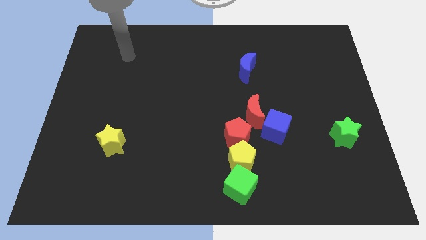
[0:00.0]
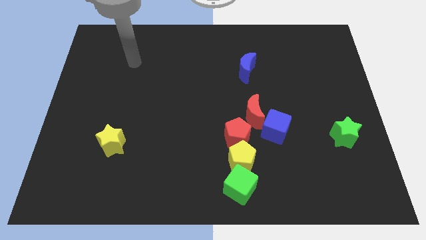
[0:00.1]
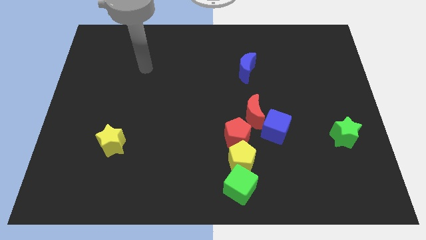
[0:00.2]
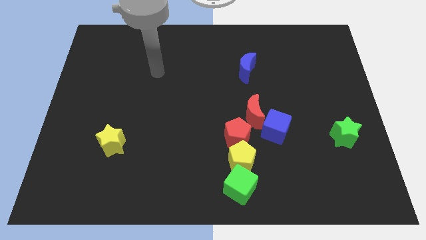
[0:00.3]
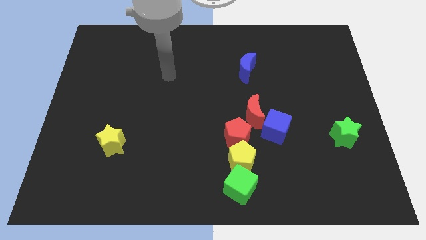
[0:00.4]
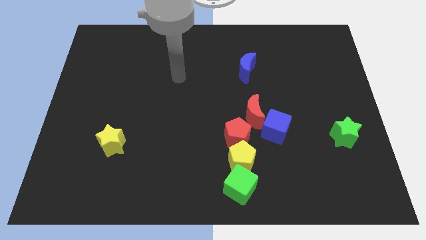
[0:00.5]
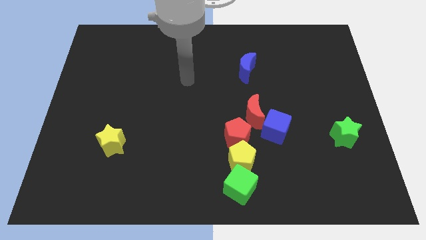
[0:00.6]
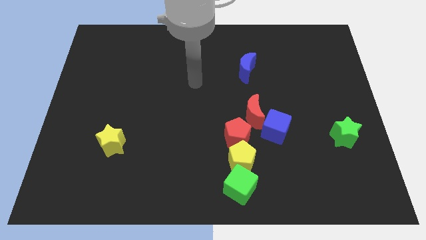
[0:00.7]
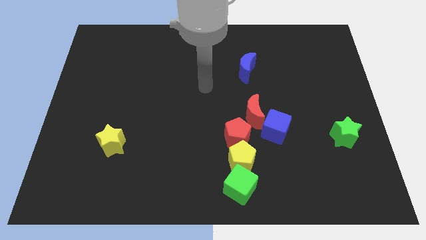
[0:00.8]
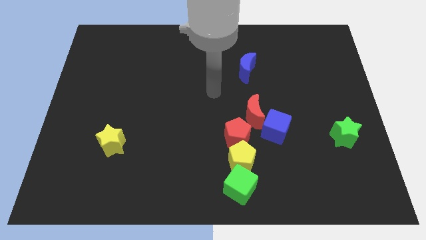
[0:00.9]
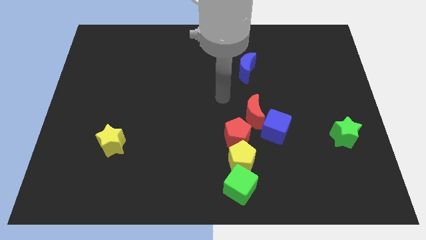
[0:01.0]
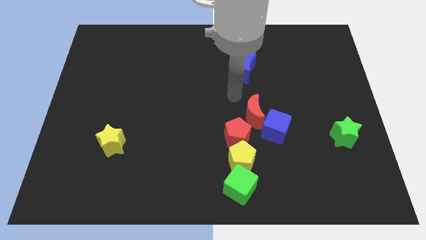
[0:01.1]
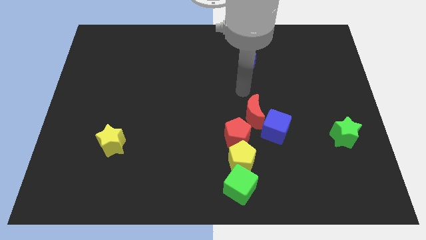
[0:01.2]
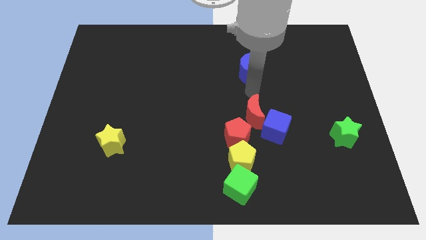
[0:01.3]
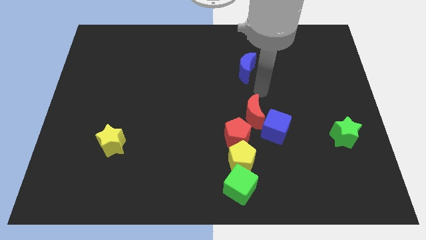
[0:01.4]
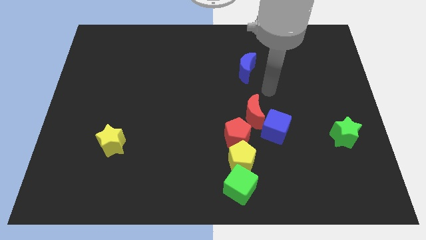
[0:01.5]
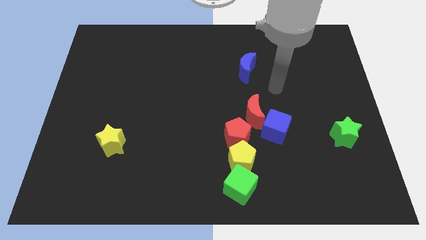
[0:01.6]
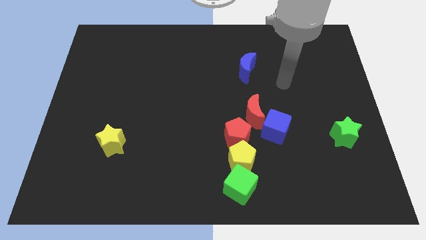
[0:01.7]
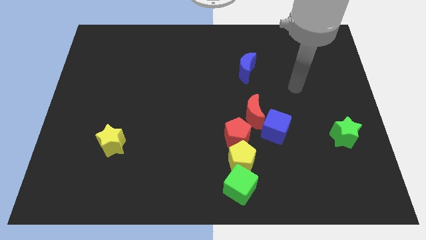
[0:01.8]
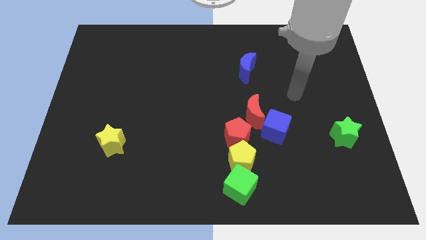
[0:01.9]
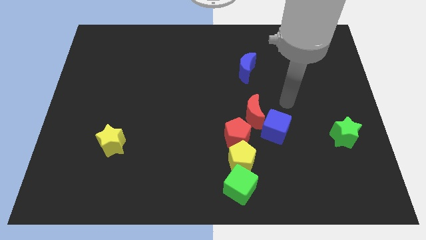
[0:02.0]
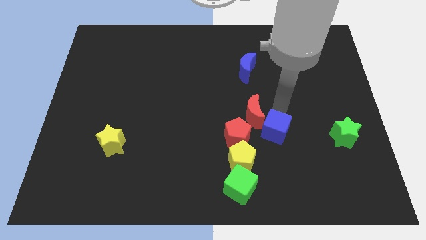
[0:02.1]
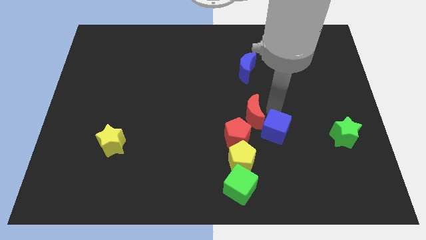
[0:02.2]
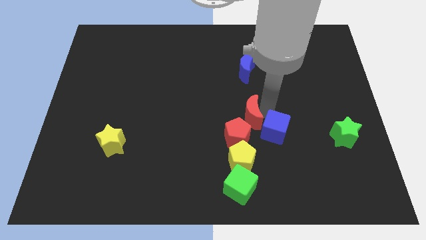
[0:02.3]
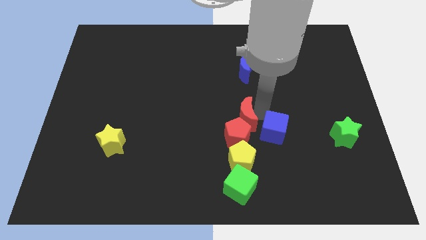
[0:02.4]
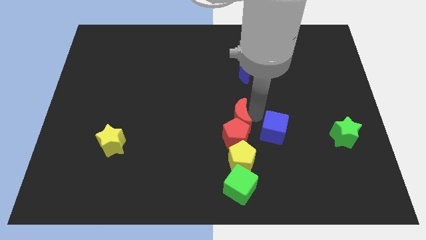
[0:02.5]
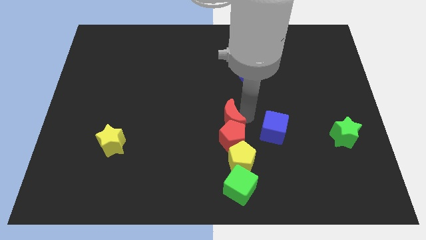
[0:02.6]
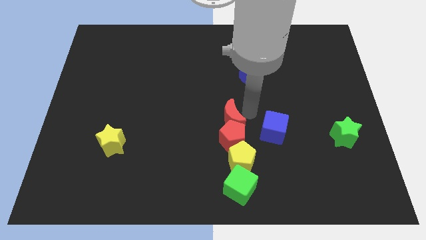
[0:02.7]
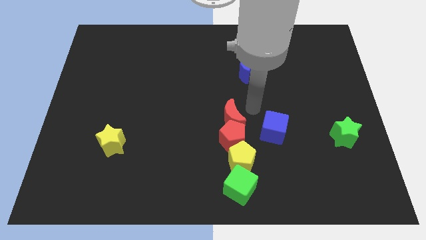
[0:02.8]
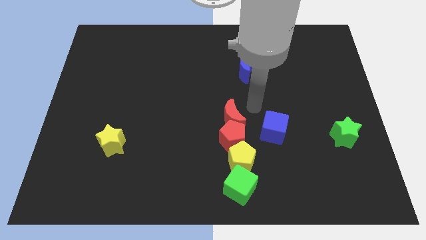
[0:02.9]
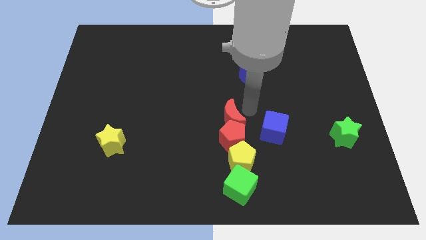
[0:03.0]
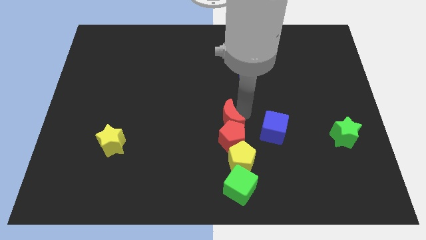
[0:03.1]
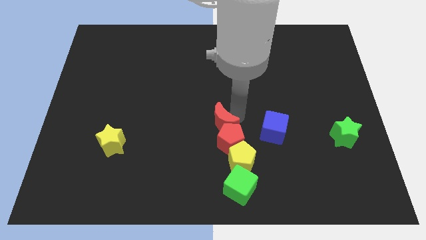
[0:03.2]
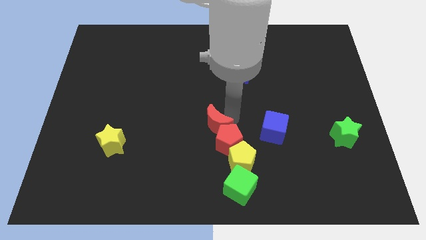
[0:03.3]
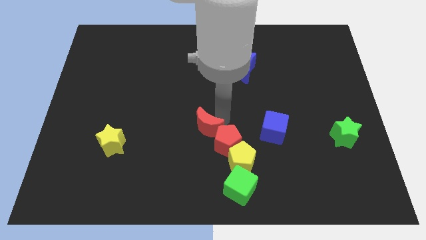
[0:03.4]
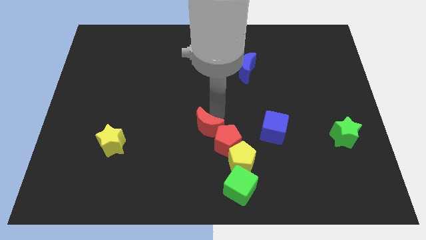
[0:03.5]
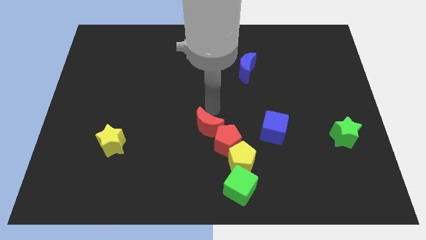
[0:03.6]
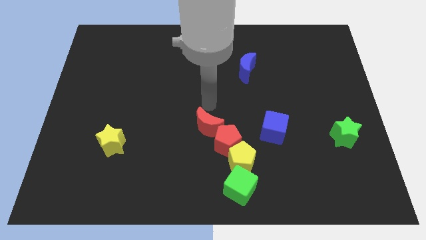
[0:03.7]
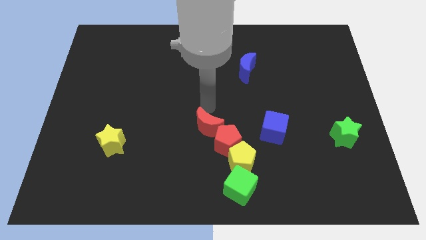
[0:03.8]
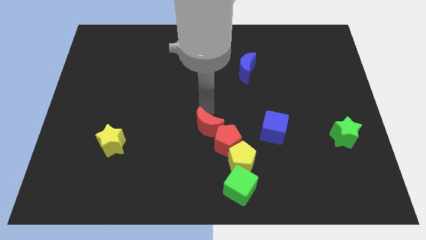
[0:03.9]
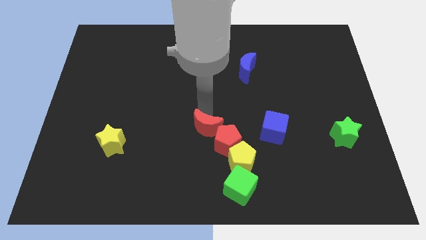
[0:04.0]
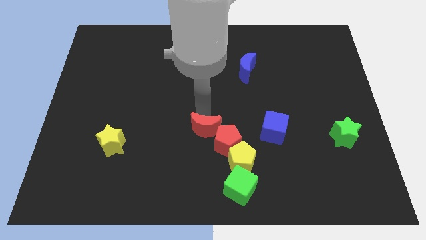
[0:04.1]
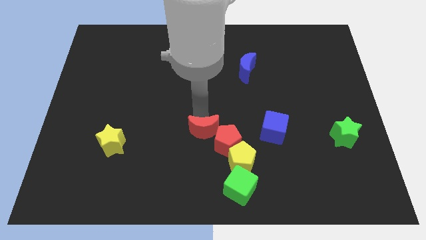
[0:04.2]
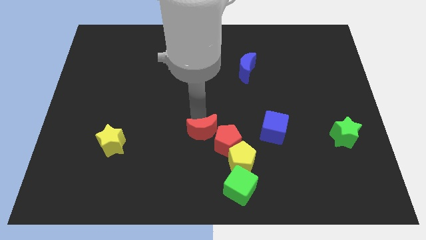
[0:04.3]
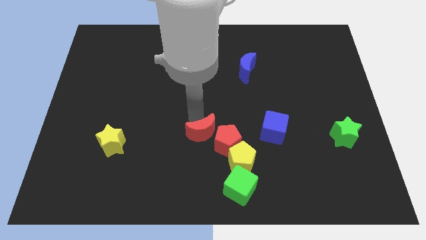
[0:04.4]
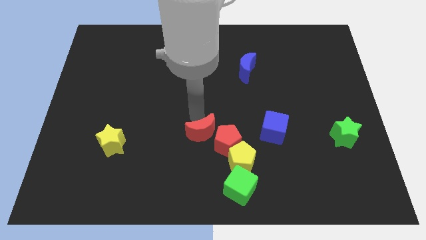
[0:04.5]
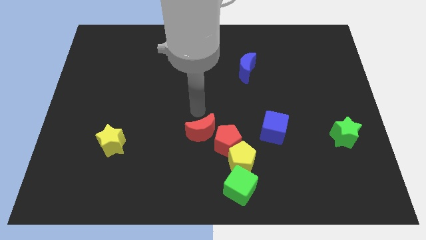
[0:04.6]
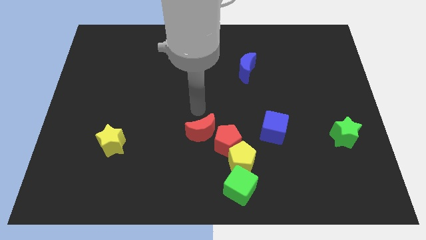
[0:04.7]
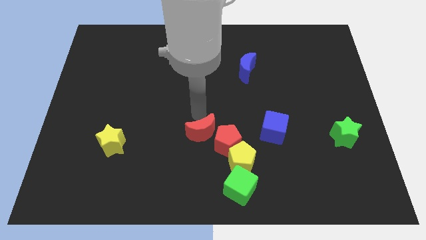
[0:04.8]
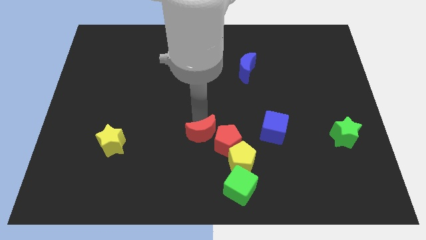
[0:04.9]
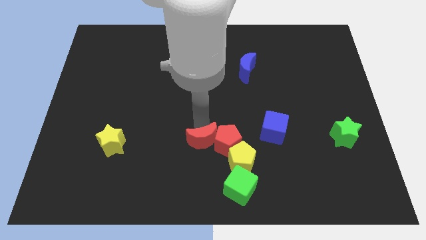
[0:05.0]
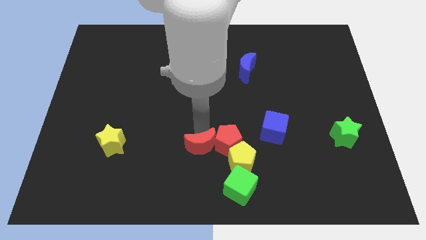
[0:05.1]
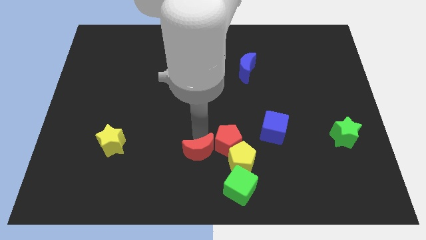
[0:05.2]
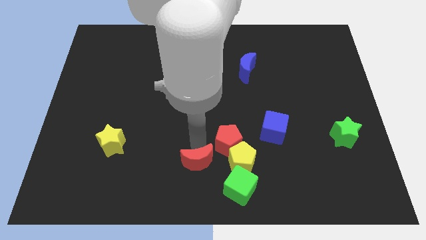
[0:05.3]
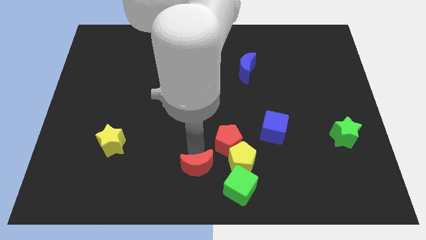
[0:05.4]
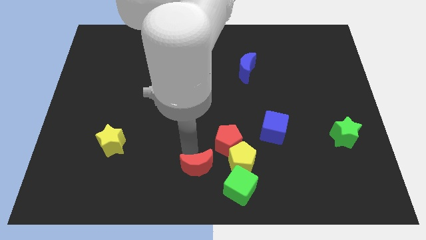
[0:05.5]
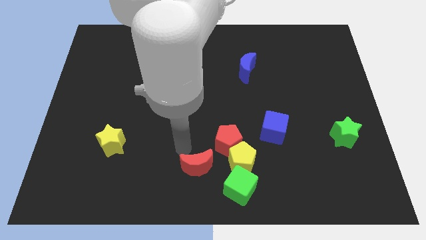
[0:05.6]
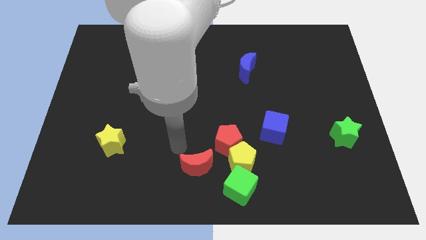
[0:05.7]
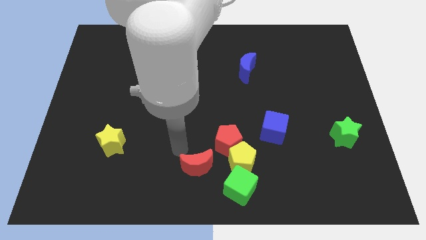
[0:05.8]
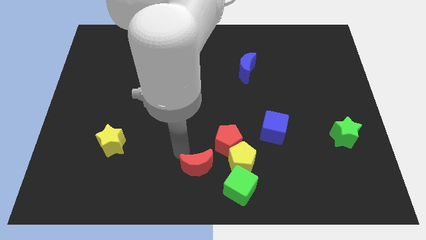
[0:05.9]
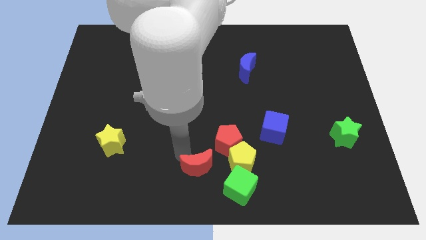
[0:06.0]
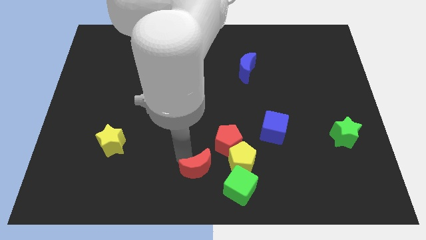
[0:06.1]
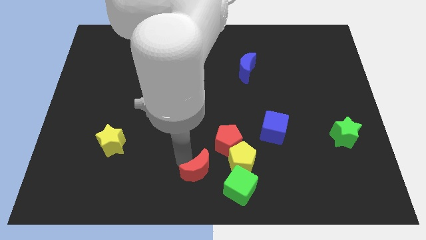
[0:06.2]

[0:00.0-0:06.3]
slide the red moon diagonally down and to the left of the yellow pentagon

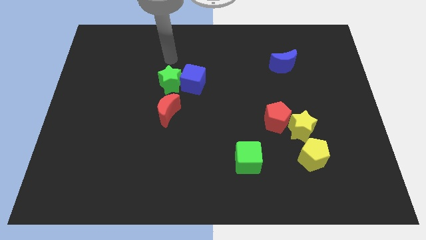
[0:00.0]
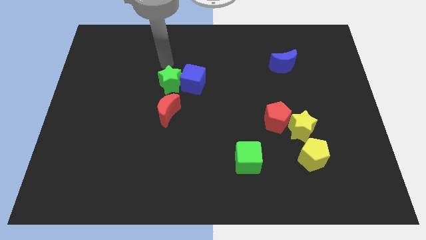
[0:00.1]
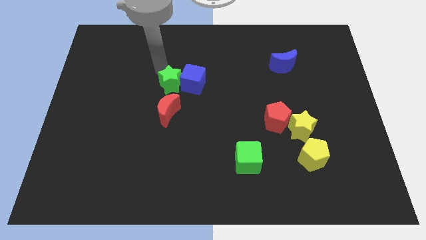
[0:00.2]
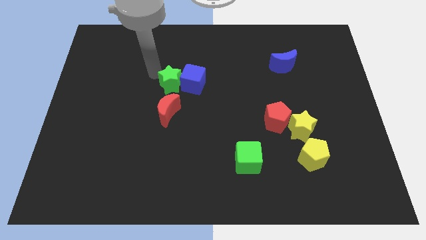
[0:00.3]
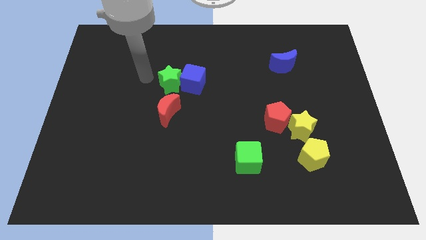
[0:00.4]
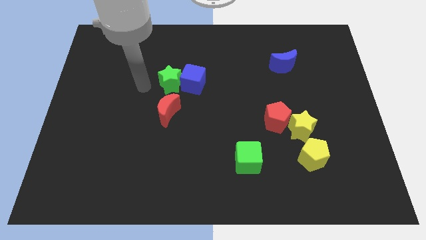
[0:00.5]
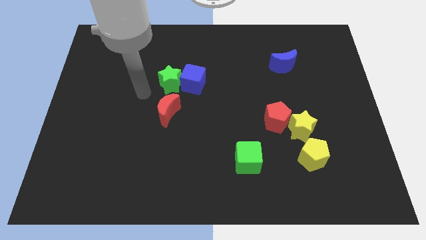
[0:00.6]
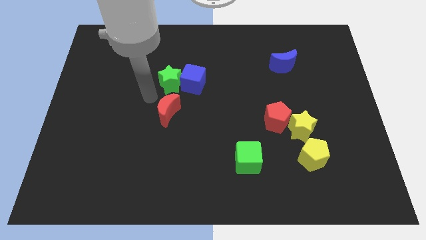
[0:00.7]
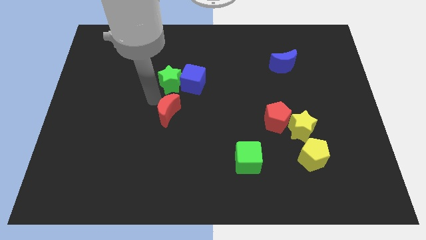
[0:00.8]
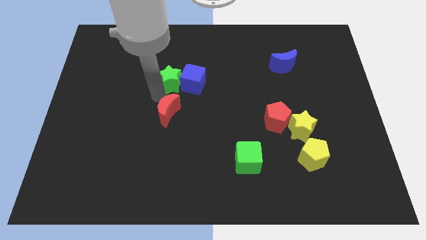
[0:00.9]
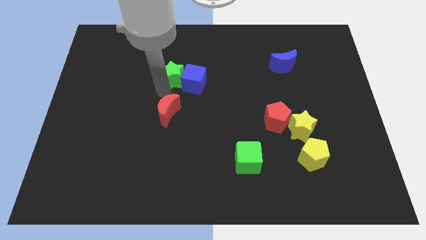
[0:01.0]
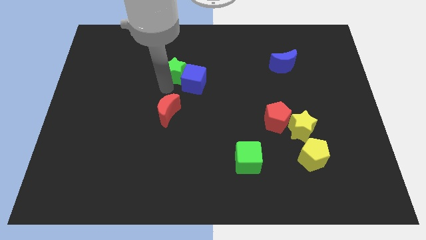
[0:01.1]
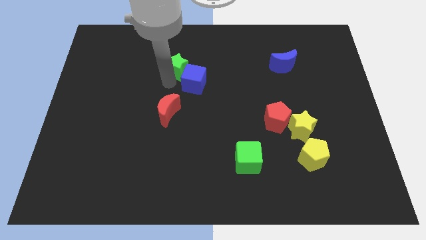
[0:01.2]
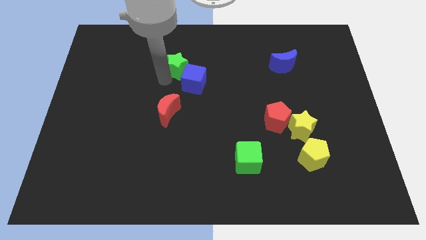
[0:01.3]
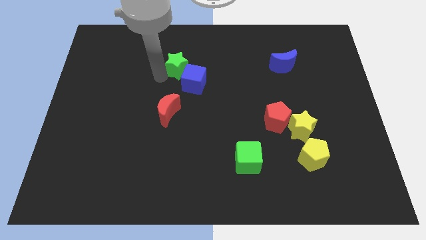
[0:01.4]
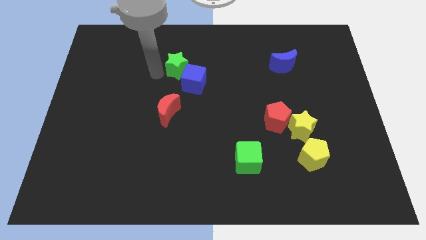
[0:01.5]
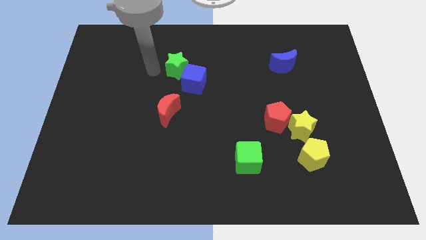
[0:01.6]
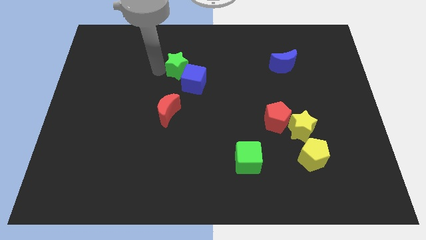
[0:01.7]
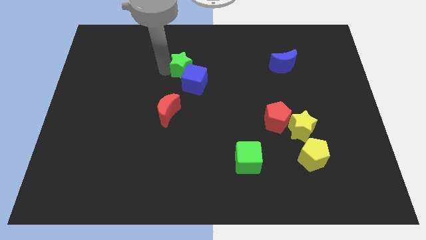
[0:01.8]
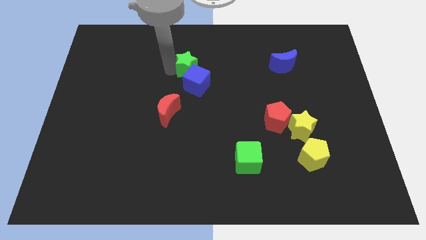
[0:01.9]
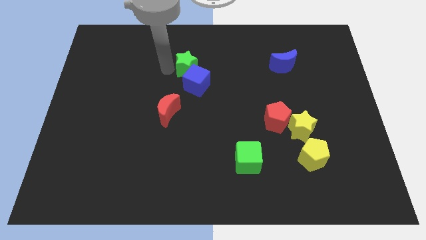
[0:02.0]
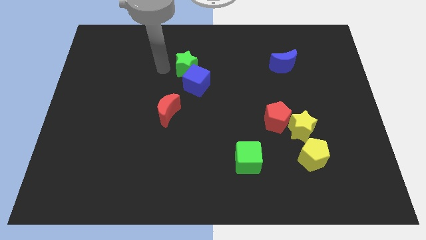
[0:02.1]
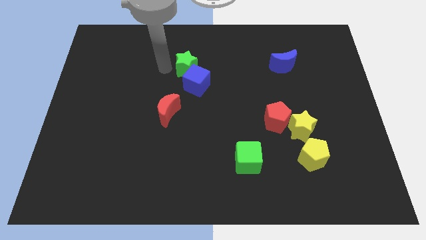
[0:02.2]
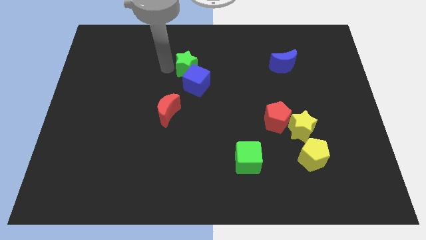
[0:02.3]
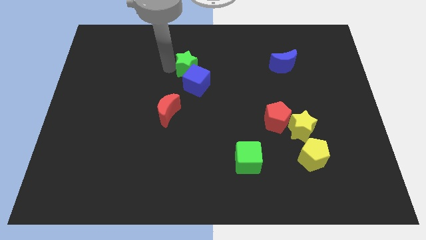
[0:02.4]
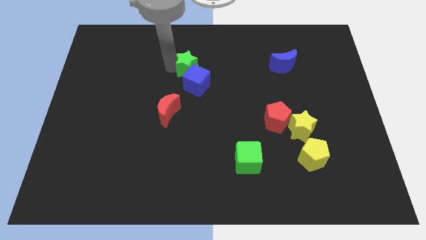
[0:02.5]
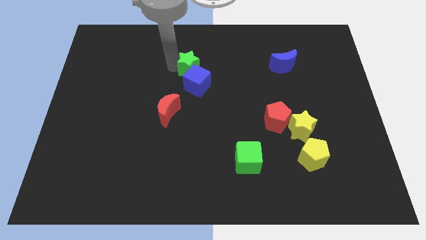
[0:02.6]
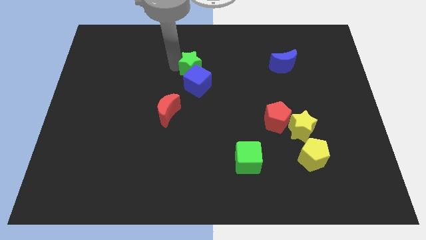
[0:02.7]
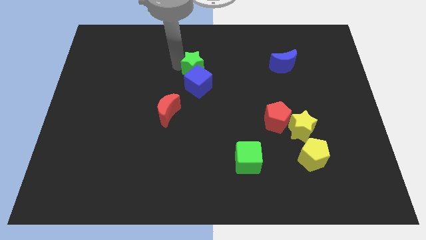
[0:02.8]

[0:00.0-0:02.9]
slide the green star diagonally up and to the right of the blue cube
